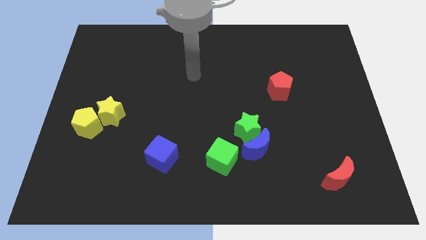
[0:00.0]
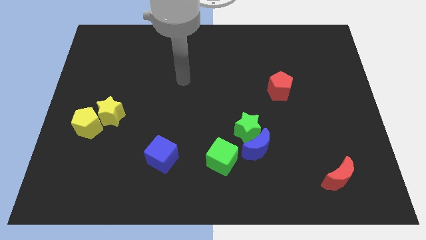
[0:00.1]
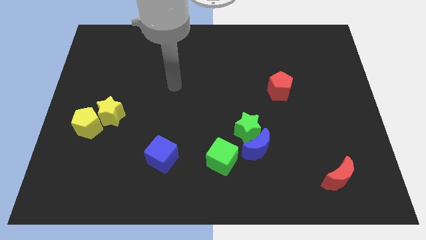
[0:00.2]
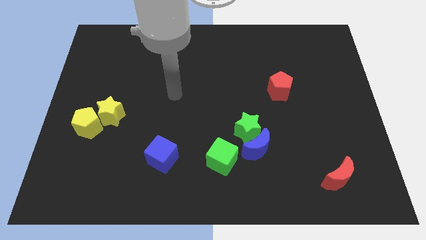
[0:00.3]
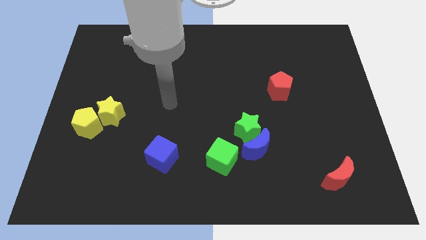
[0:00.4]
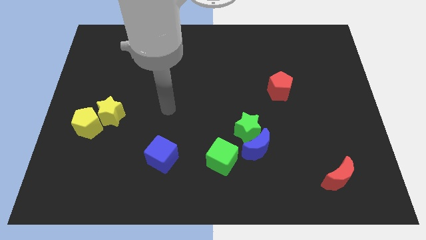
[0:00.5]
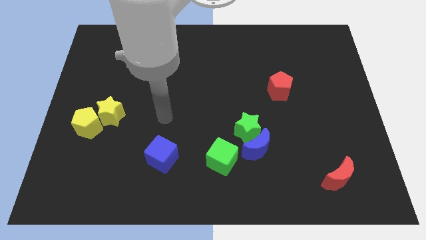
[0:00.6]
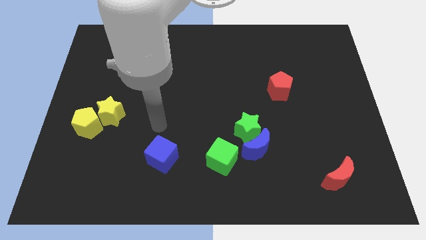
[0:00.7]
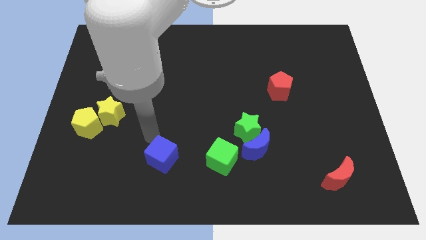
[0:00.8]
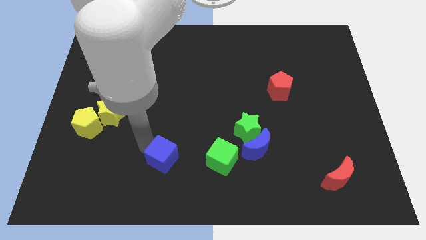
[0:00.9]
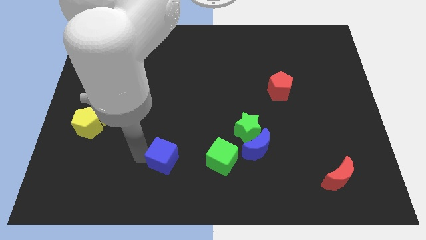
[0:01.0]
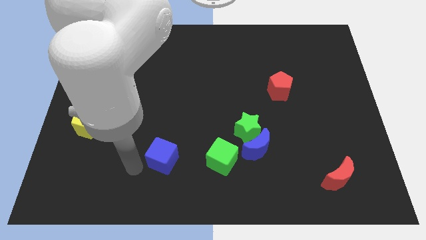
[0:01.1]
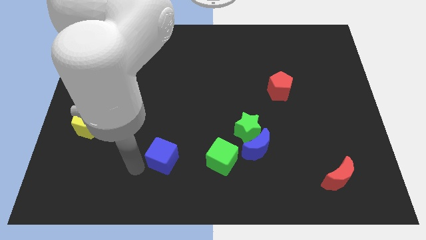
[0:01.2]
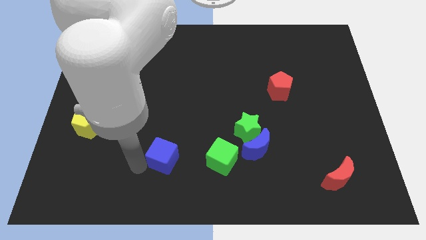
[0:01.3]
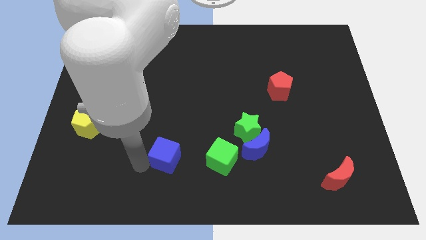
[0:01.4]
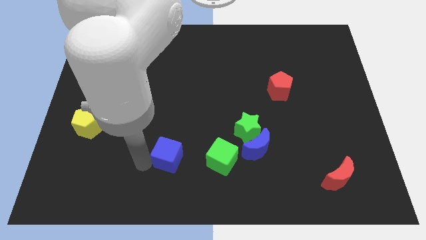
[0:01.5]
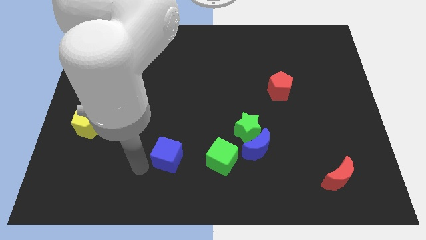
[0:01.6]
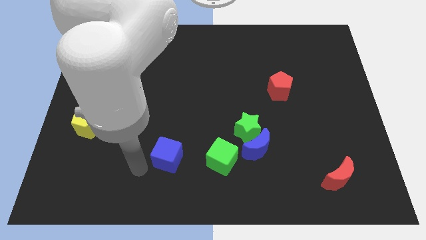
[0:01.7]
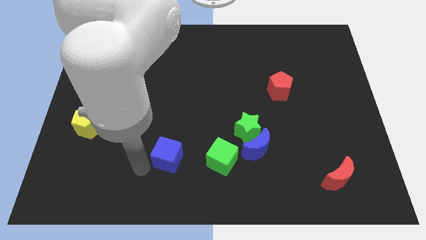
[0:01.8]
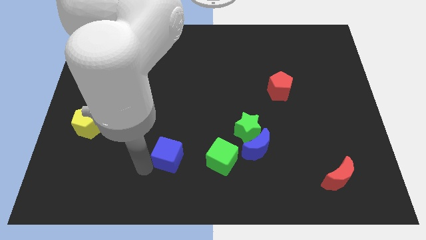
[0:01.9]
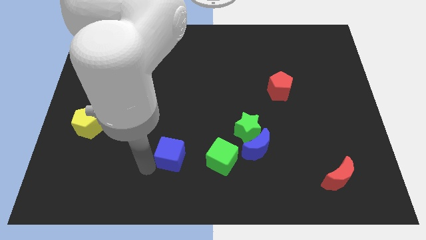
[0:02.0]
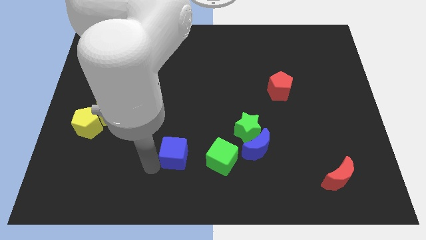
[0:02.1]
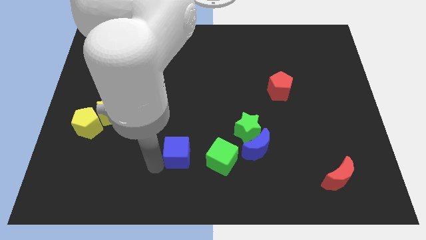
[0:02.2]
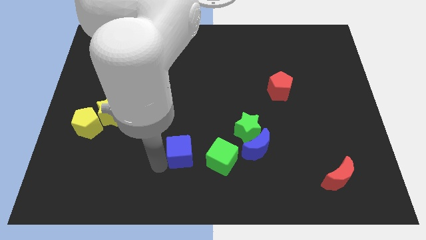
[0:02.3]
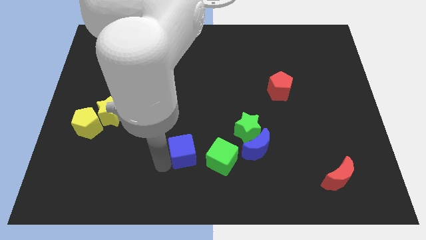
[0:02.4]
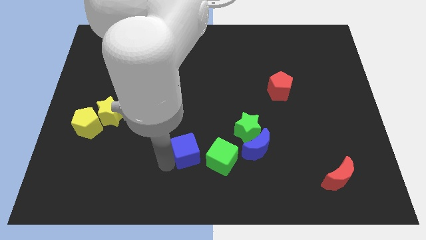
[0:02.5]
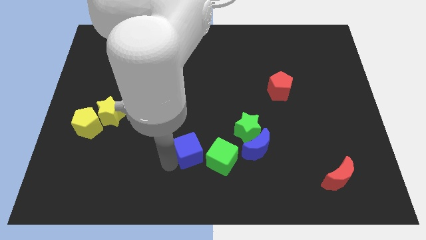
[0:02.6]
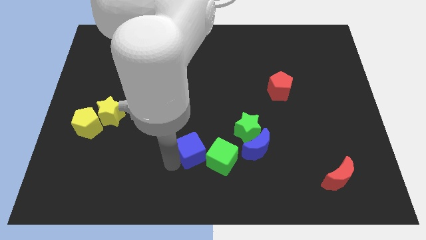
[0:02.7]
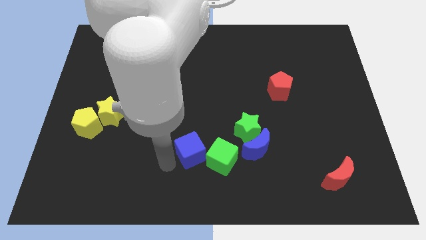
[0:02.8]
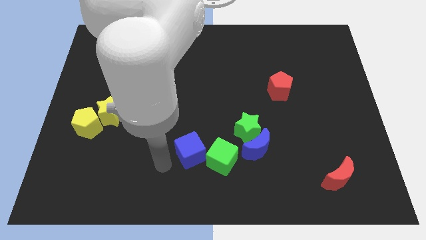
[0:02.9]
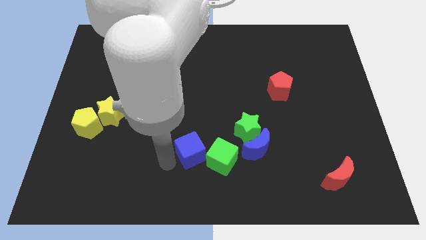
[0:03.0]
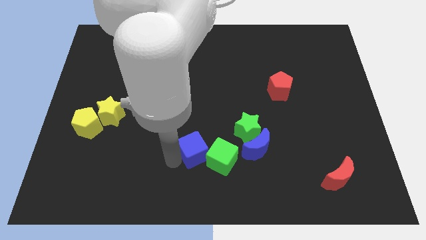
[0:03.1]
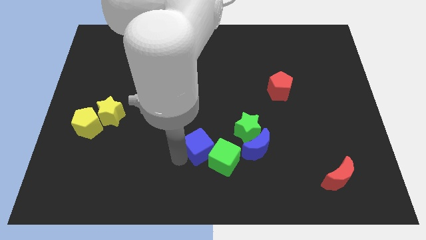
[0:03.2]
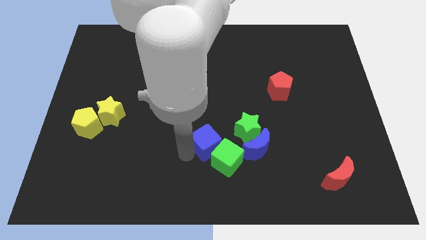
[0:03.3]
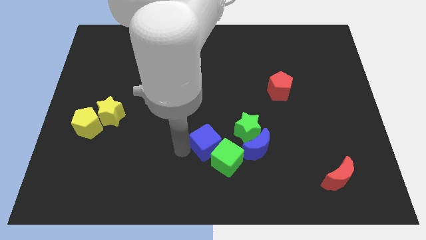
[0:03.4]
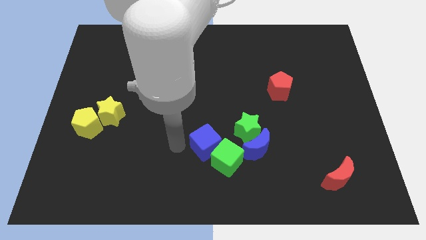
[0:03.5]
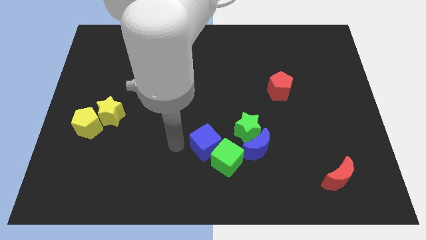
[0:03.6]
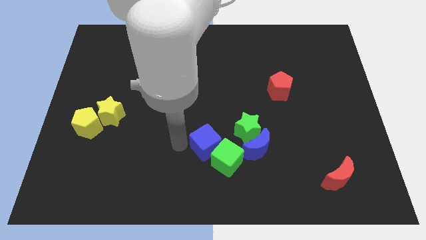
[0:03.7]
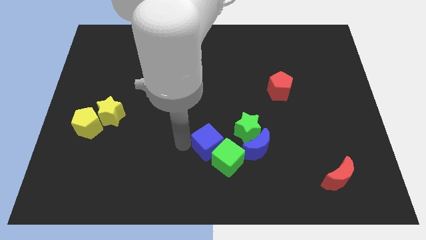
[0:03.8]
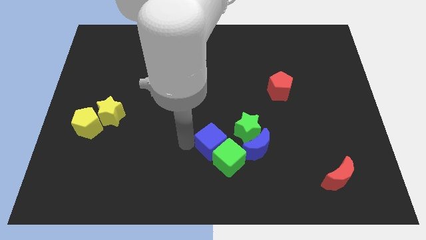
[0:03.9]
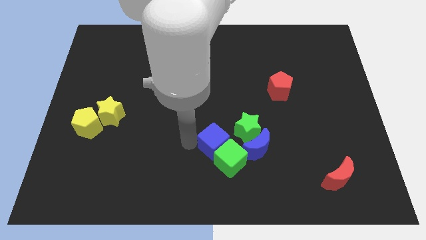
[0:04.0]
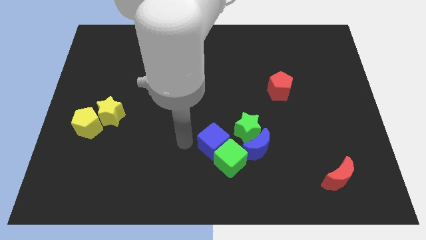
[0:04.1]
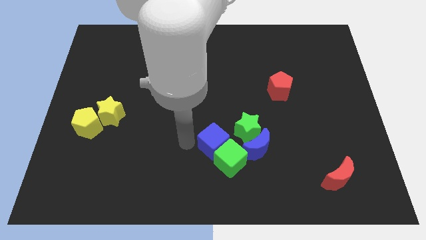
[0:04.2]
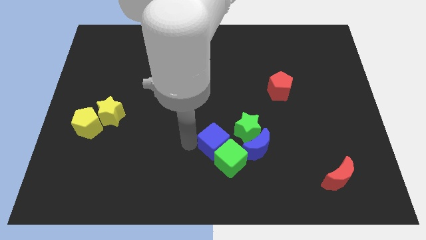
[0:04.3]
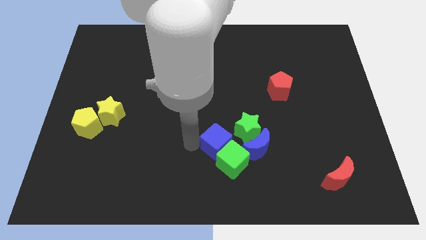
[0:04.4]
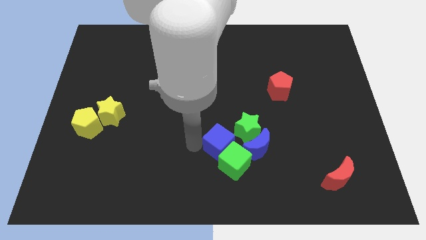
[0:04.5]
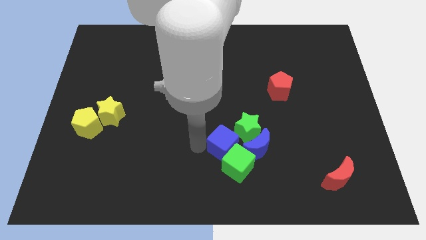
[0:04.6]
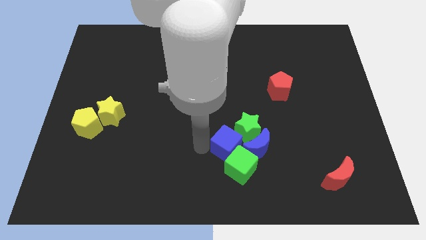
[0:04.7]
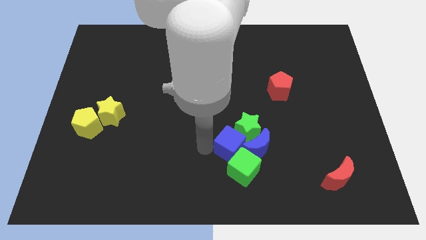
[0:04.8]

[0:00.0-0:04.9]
move the blue cube to the blue moon

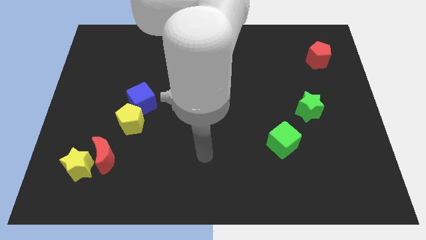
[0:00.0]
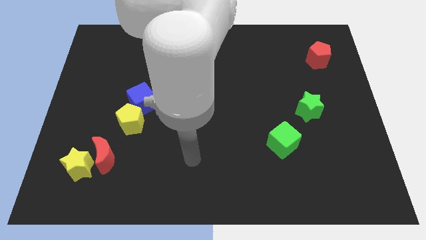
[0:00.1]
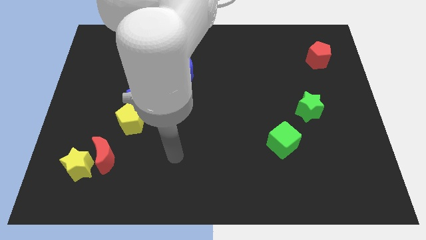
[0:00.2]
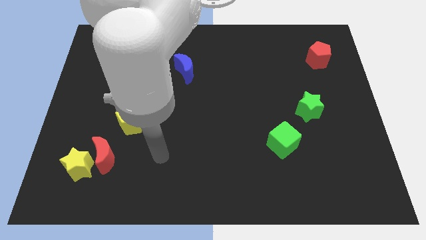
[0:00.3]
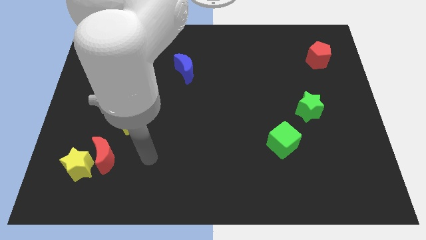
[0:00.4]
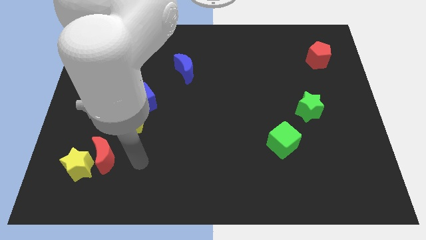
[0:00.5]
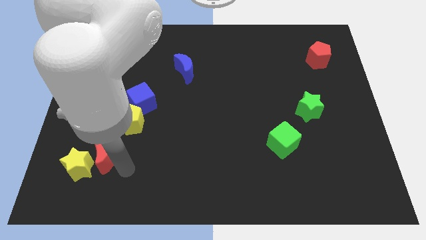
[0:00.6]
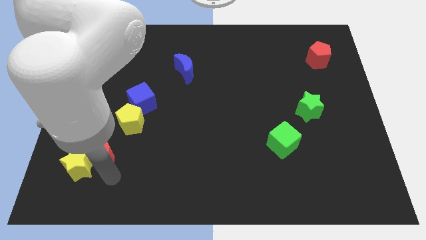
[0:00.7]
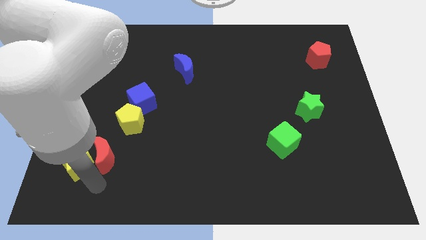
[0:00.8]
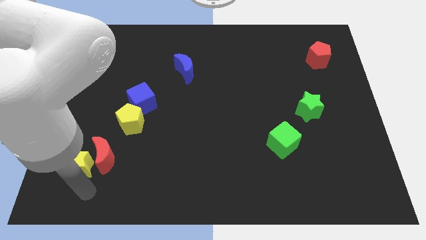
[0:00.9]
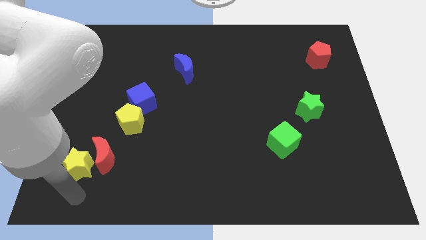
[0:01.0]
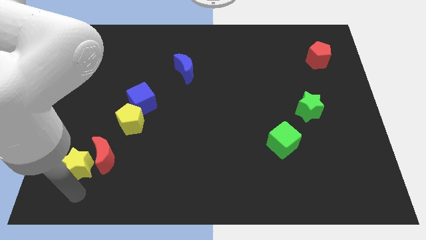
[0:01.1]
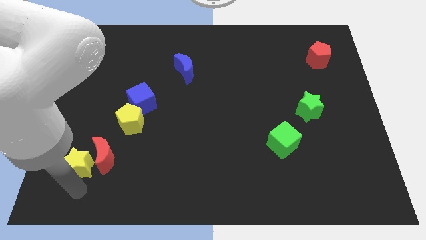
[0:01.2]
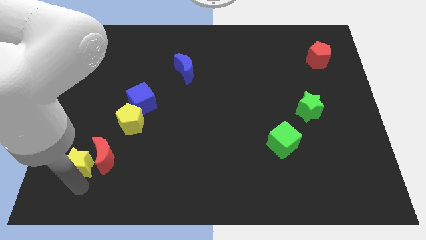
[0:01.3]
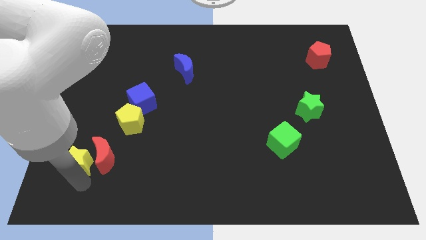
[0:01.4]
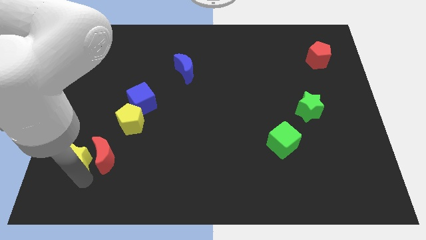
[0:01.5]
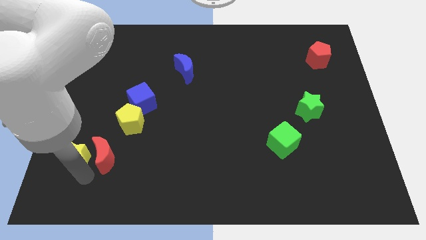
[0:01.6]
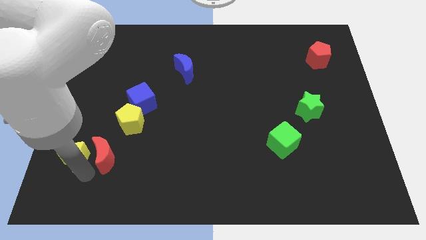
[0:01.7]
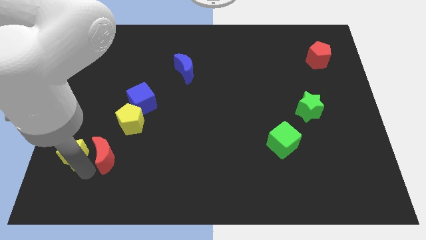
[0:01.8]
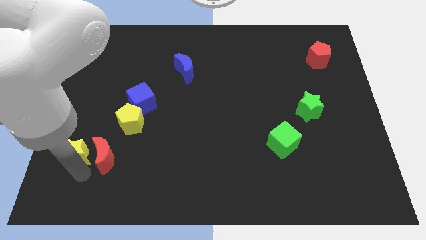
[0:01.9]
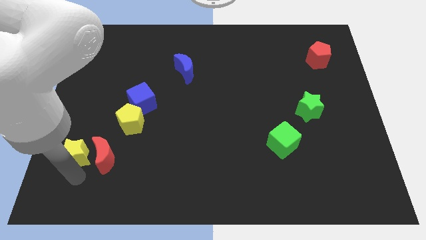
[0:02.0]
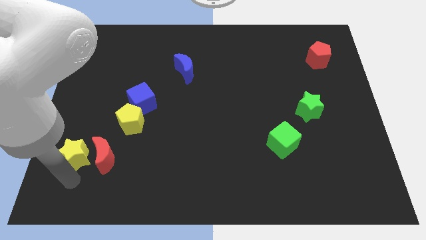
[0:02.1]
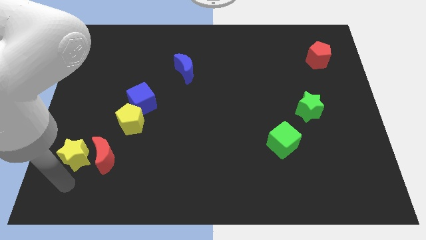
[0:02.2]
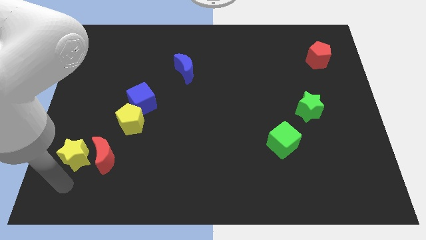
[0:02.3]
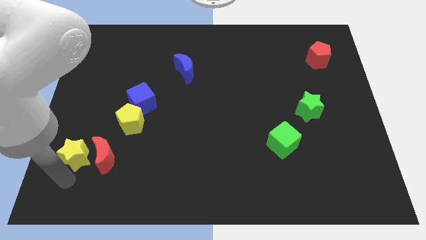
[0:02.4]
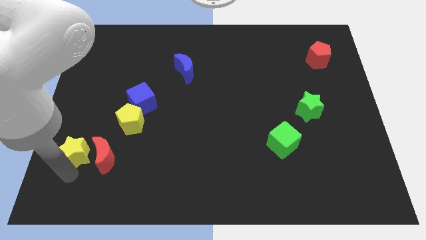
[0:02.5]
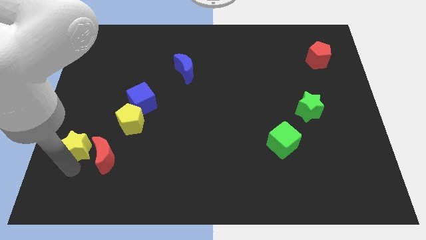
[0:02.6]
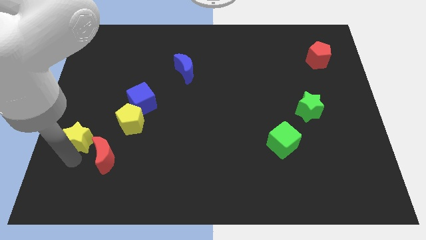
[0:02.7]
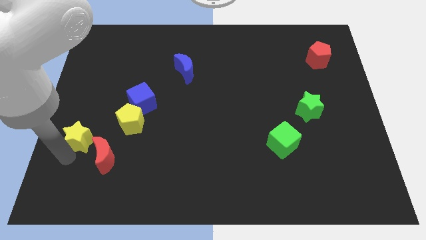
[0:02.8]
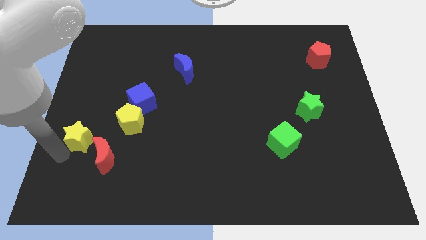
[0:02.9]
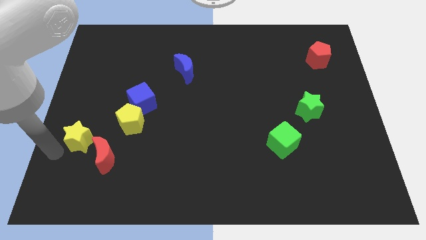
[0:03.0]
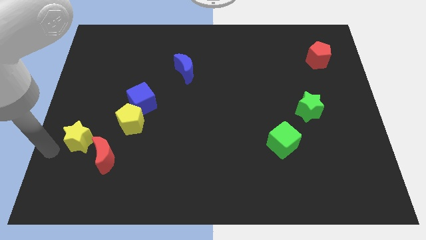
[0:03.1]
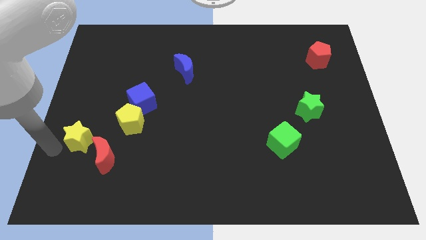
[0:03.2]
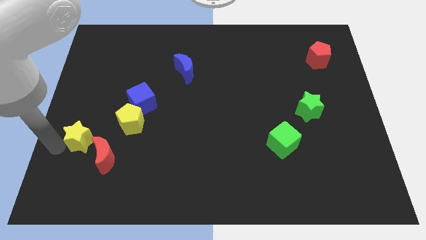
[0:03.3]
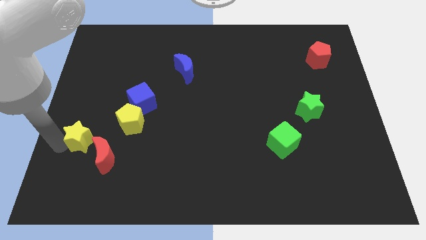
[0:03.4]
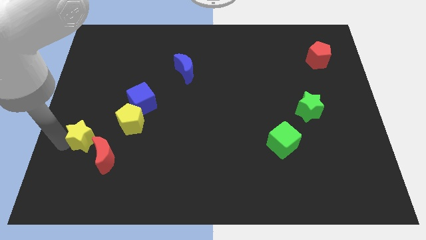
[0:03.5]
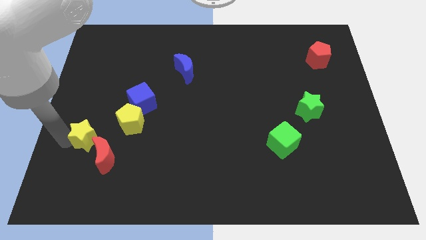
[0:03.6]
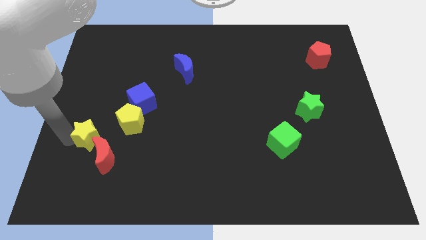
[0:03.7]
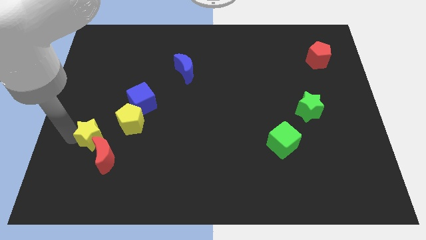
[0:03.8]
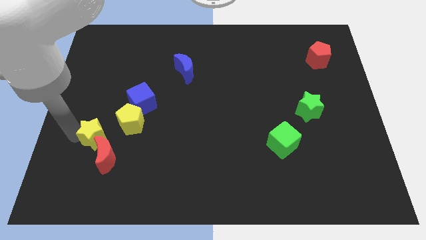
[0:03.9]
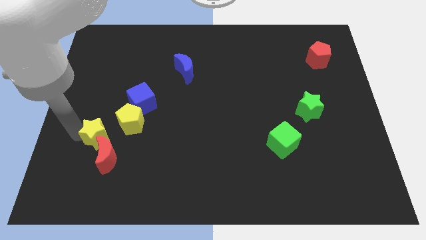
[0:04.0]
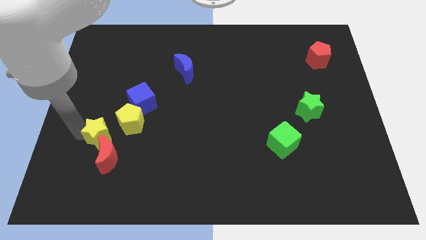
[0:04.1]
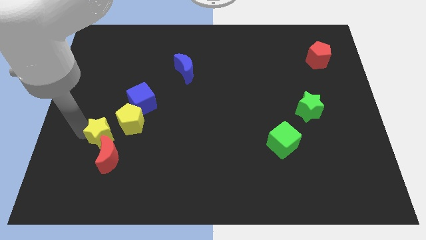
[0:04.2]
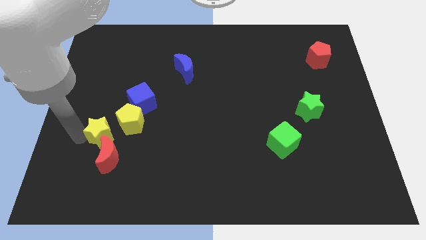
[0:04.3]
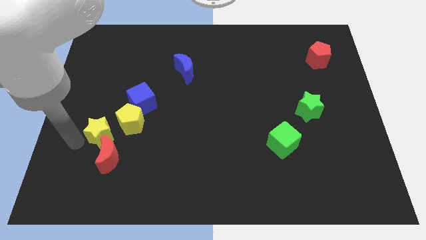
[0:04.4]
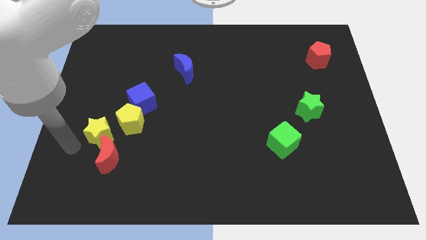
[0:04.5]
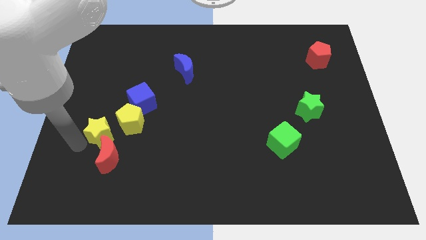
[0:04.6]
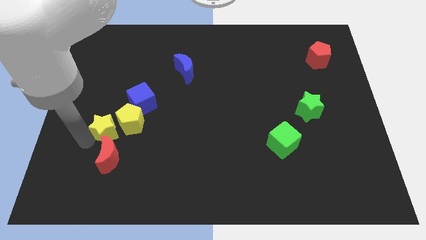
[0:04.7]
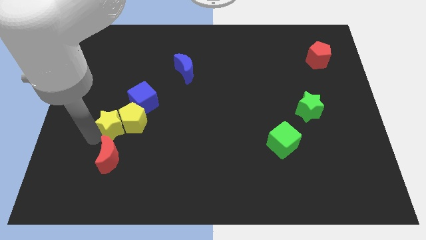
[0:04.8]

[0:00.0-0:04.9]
put the yellow star to the yellow pentagon
